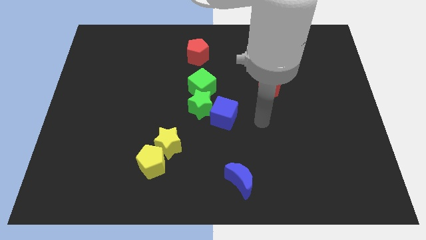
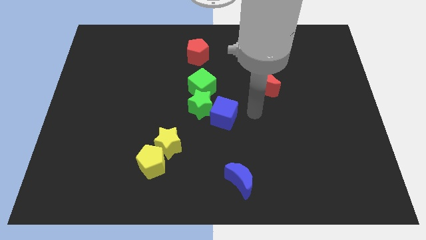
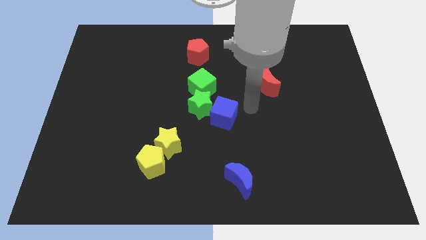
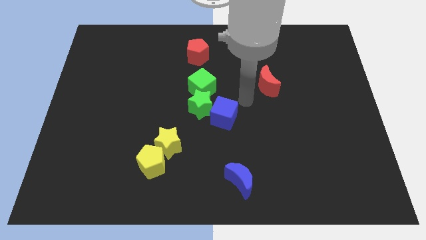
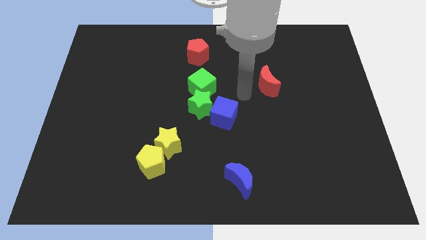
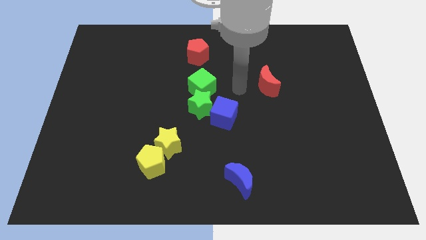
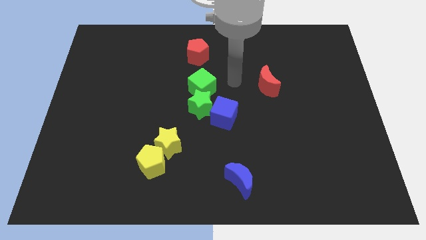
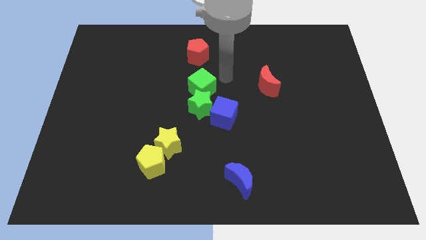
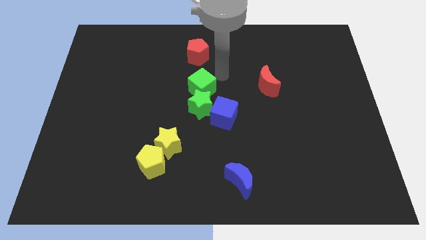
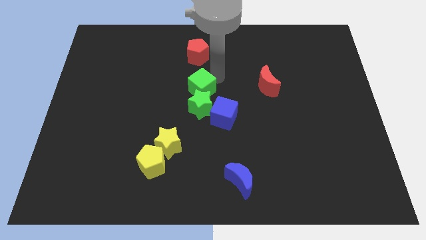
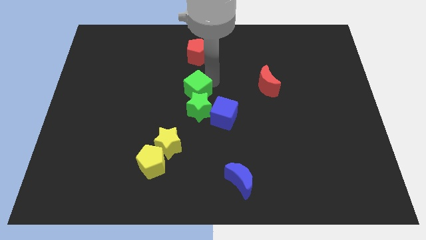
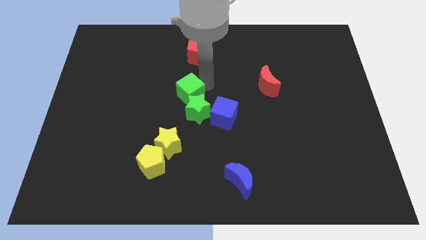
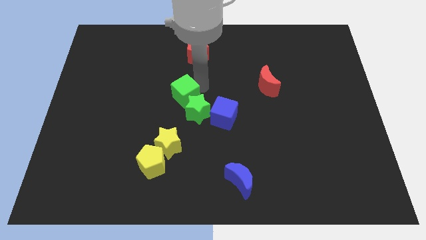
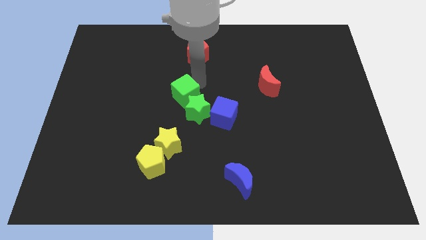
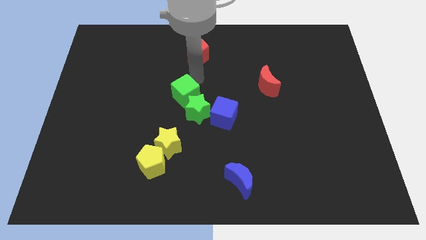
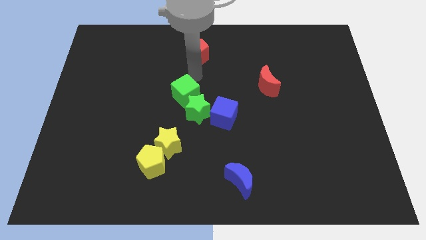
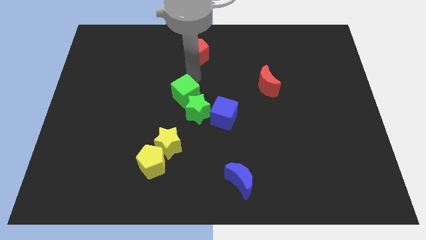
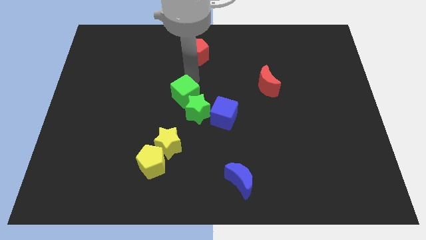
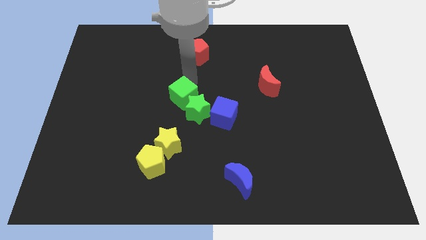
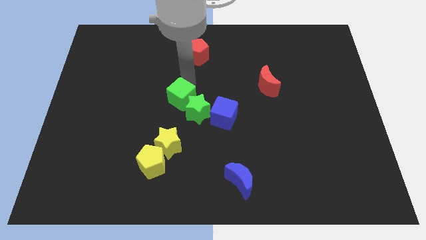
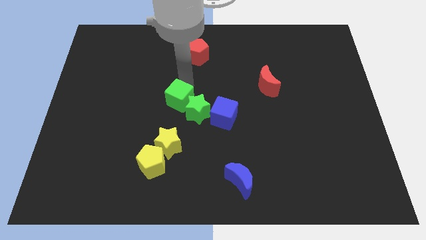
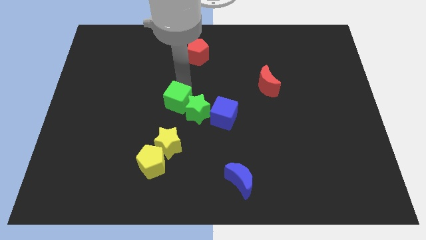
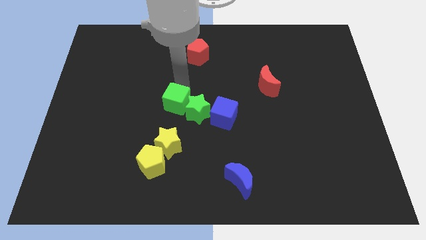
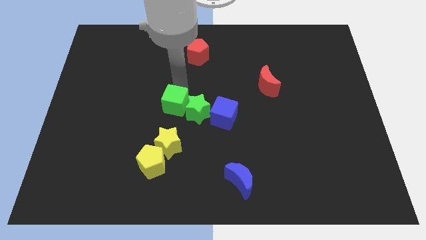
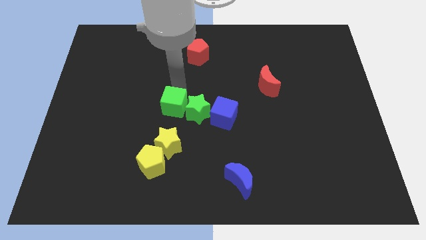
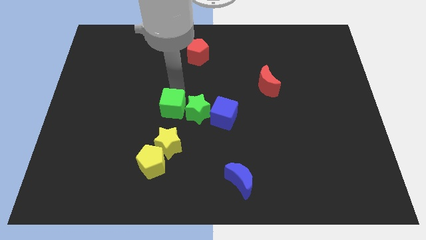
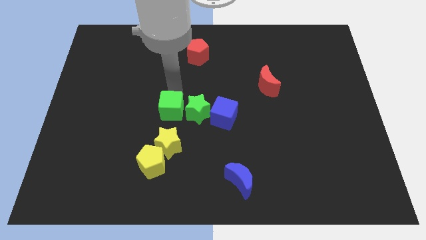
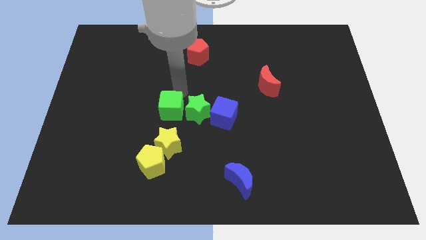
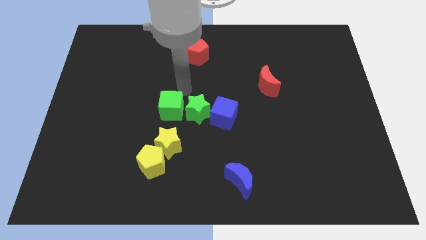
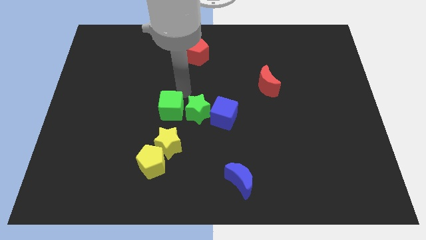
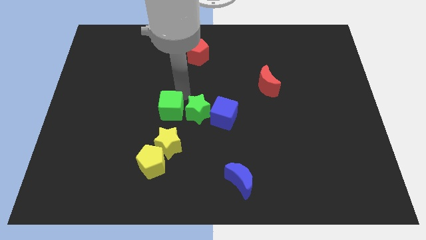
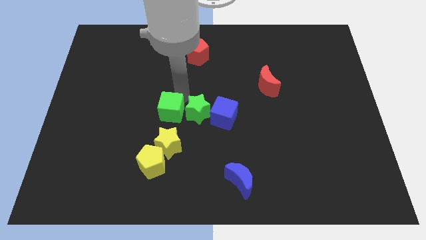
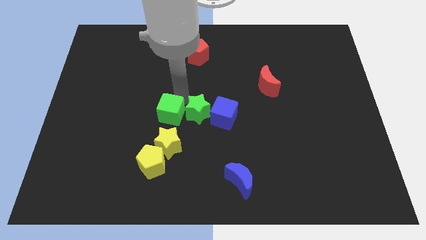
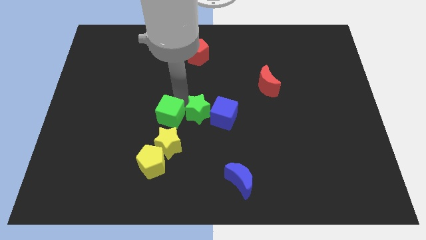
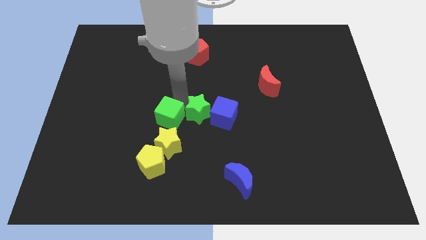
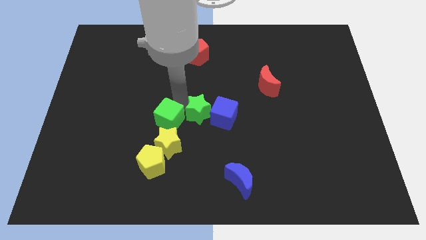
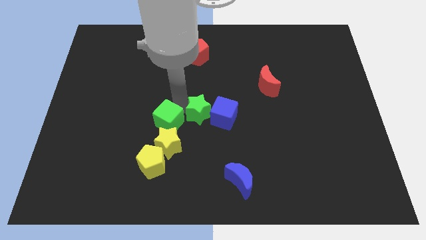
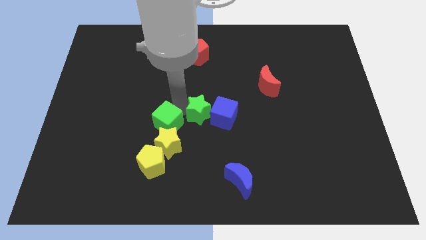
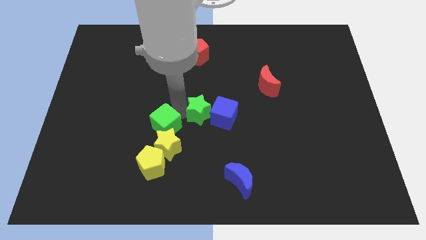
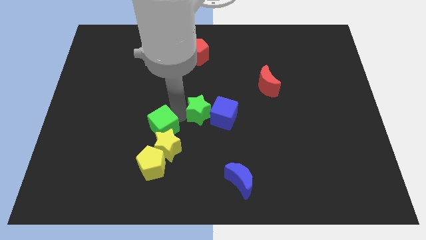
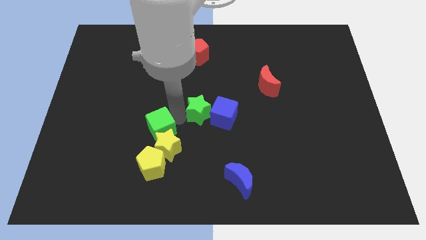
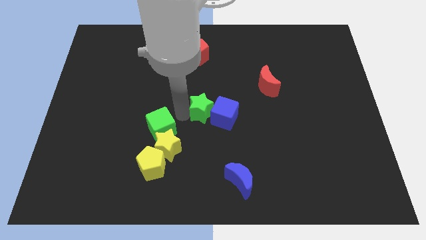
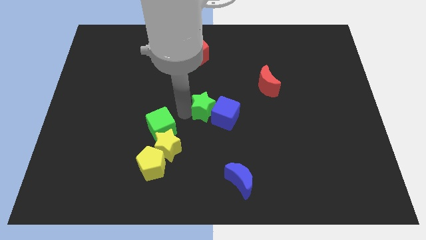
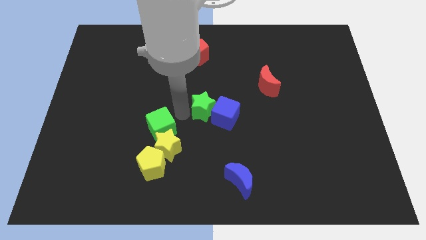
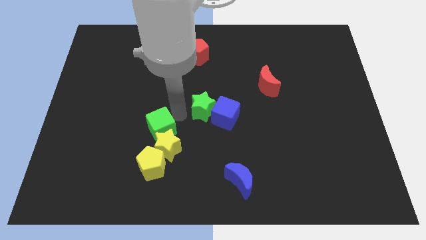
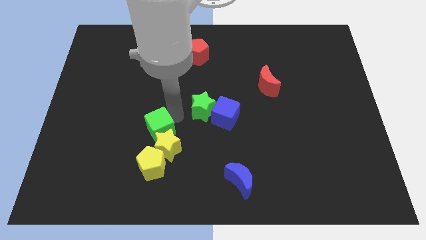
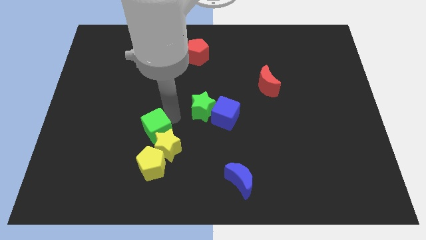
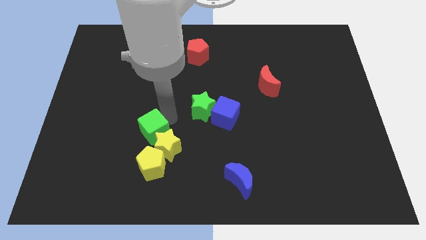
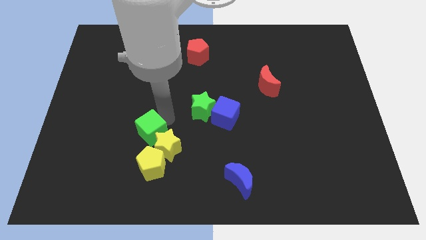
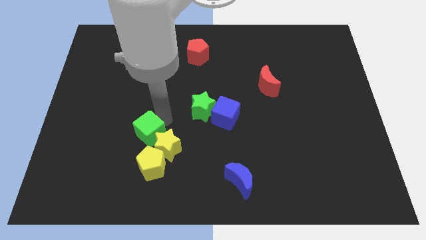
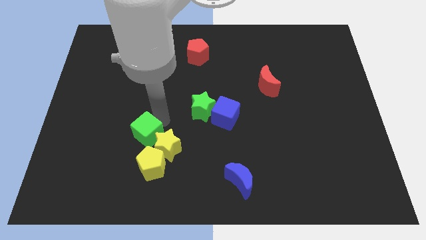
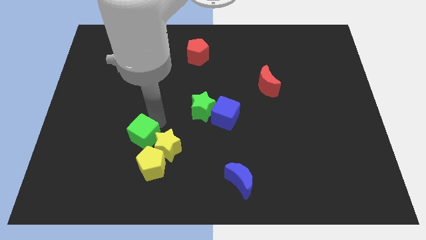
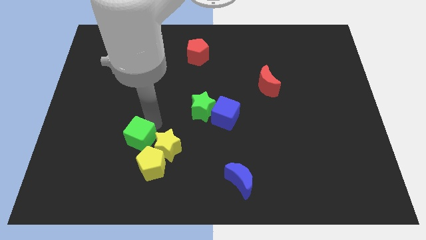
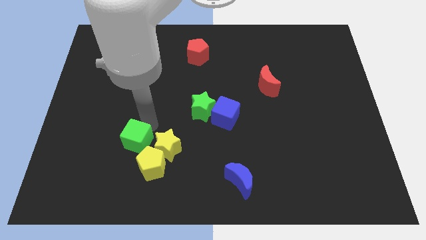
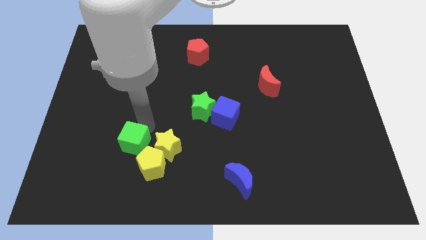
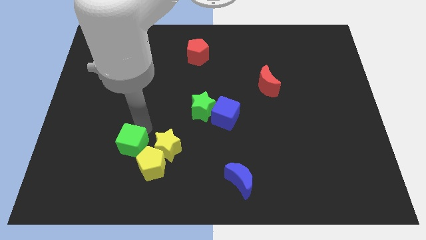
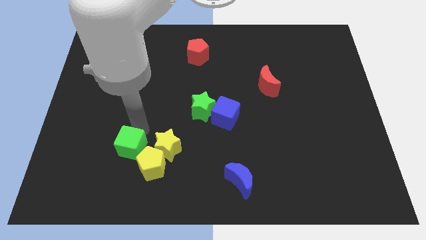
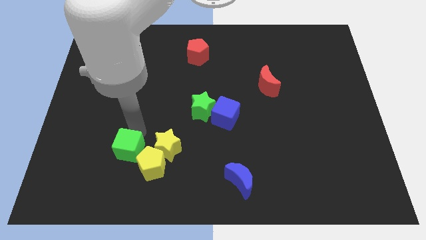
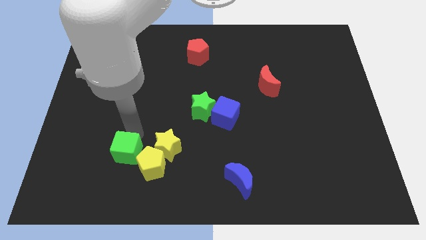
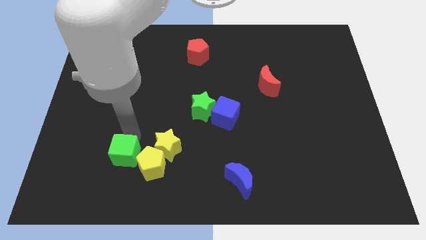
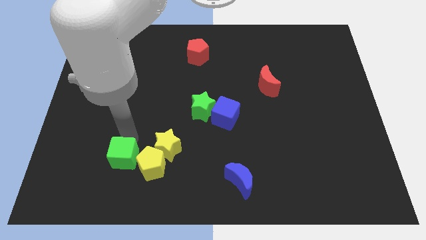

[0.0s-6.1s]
put the green cube to the bottom left side of the yellow star
